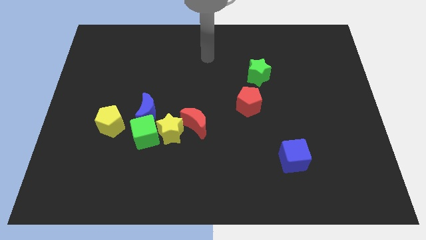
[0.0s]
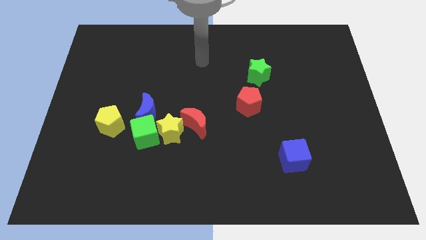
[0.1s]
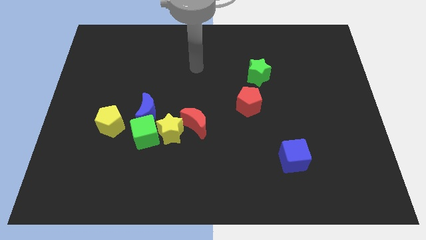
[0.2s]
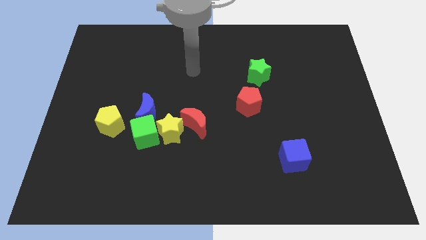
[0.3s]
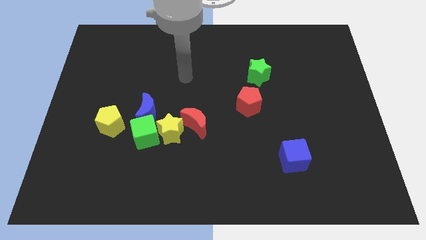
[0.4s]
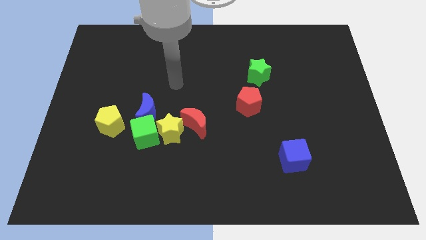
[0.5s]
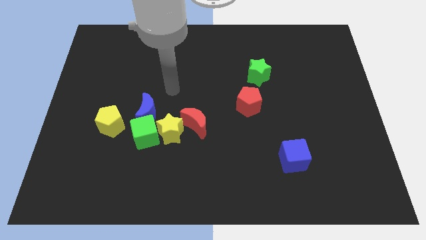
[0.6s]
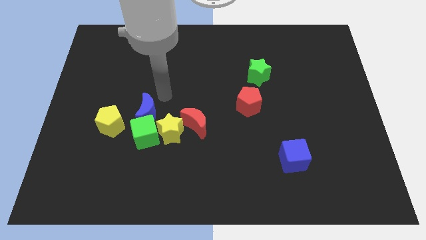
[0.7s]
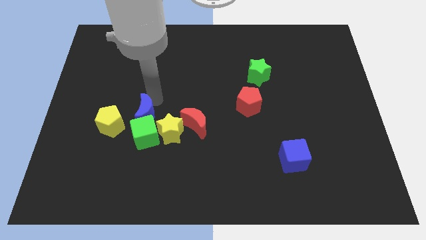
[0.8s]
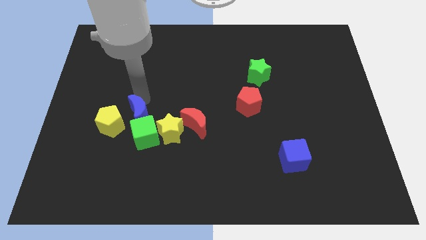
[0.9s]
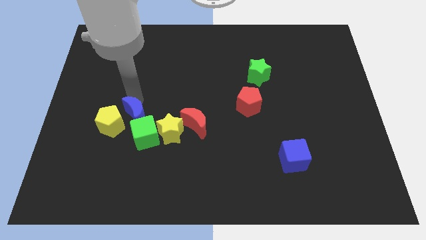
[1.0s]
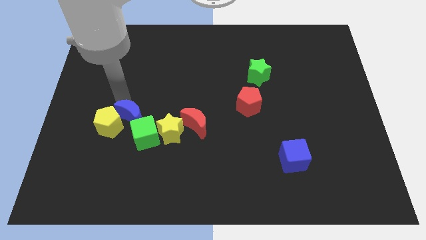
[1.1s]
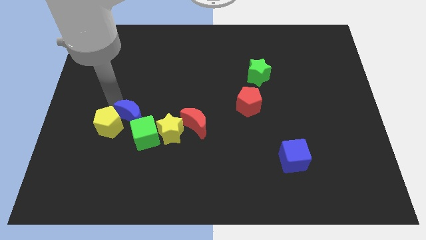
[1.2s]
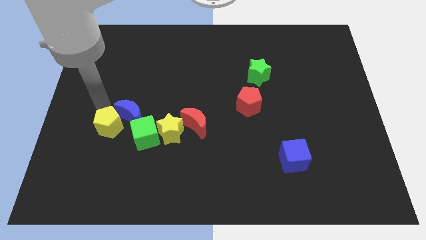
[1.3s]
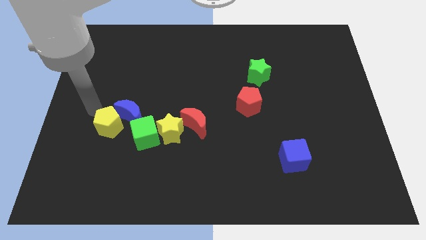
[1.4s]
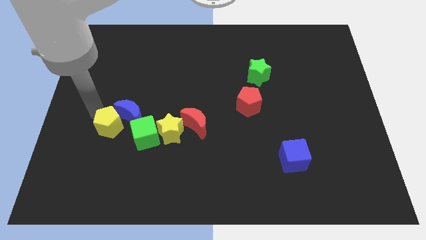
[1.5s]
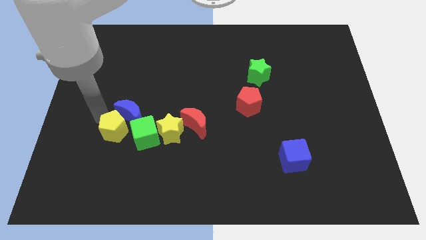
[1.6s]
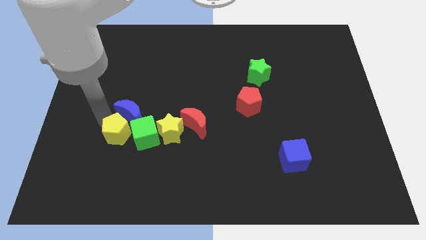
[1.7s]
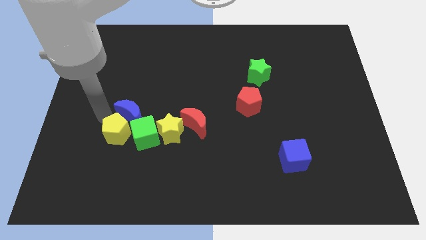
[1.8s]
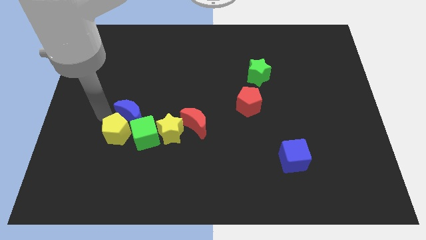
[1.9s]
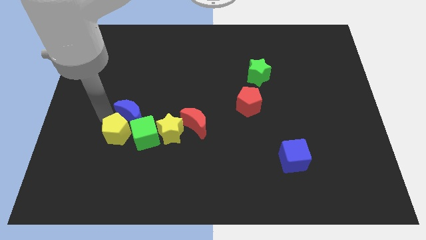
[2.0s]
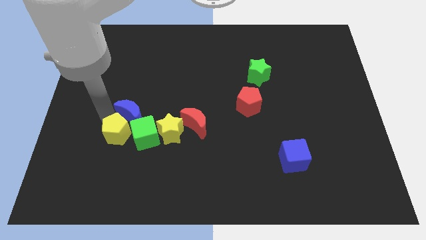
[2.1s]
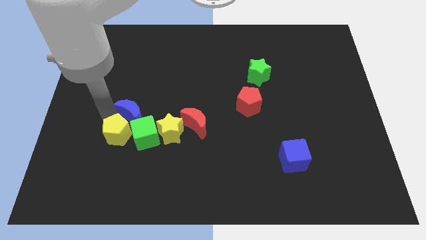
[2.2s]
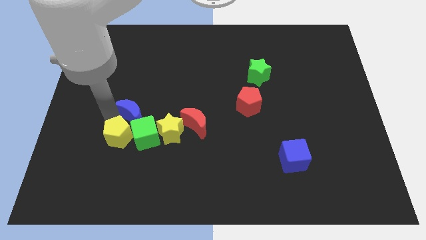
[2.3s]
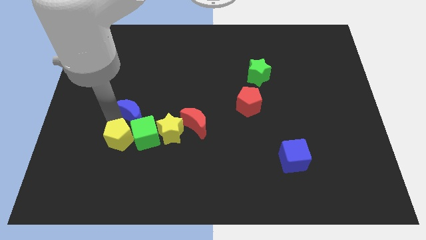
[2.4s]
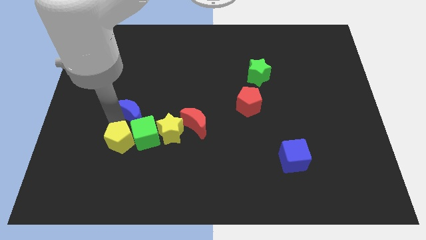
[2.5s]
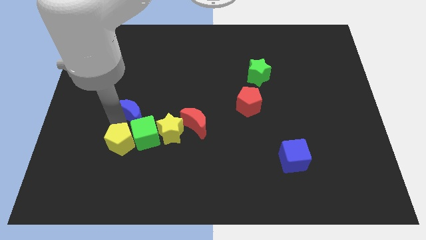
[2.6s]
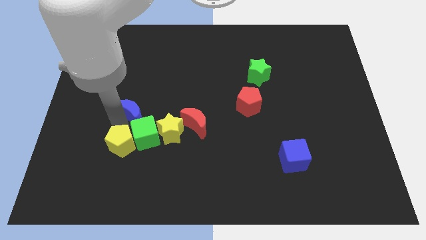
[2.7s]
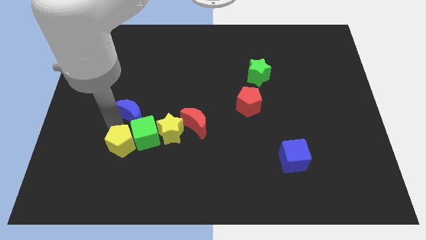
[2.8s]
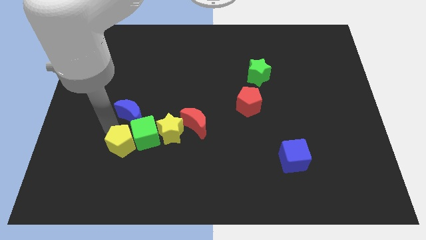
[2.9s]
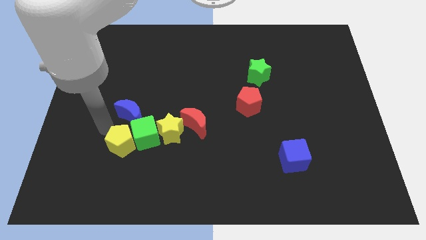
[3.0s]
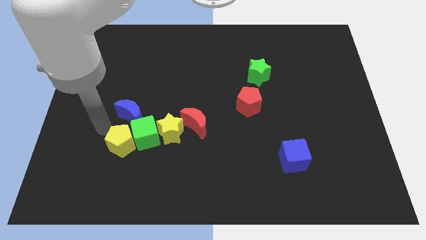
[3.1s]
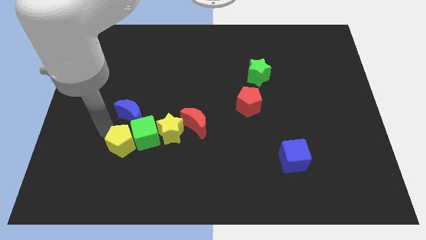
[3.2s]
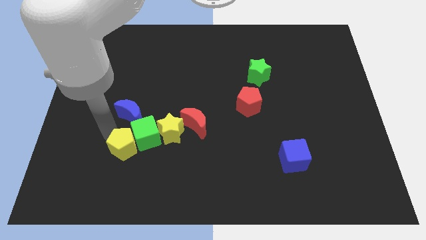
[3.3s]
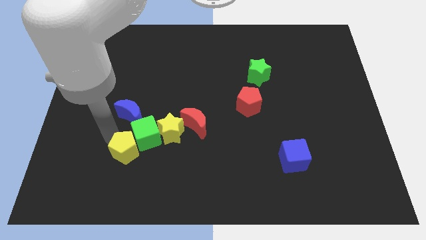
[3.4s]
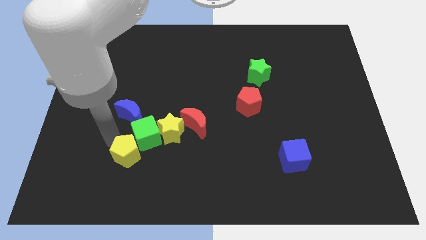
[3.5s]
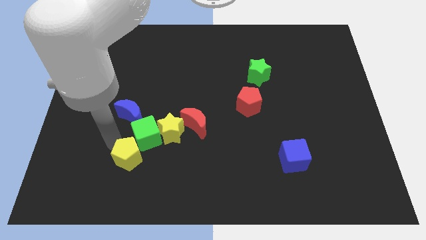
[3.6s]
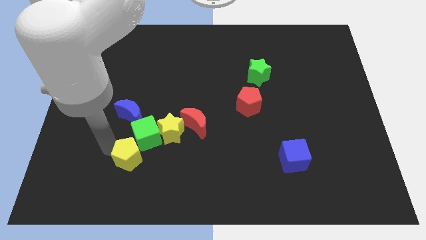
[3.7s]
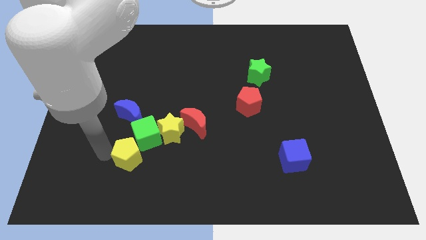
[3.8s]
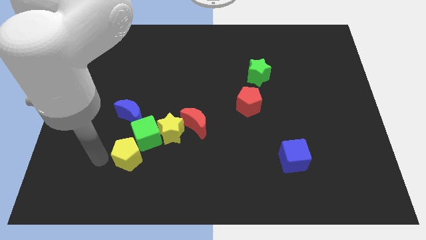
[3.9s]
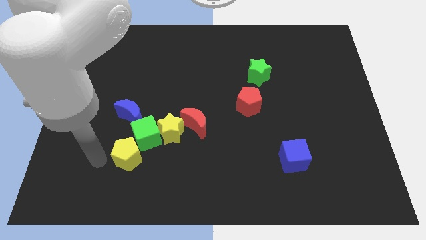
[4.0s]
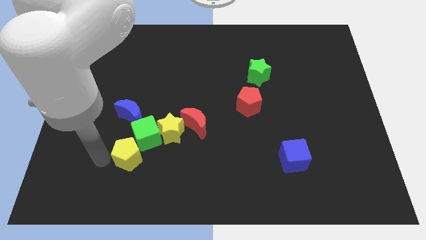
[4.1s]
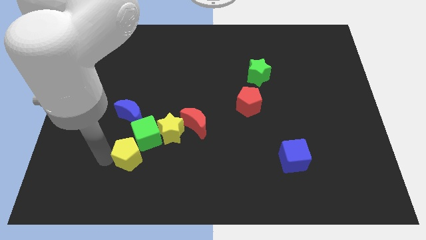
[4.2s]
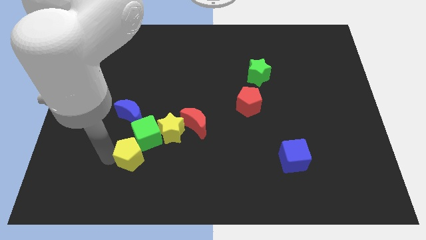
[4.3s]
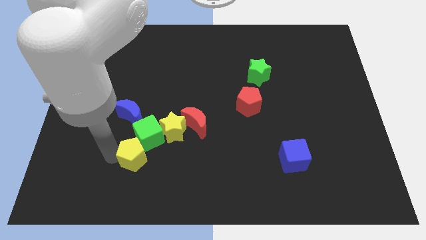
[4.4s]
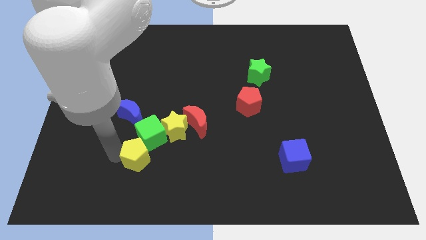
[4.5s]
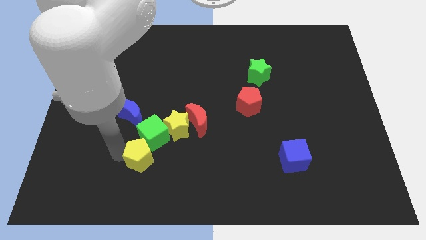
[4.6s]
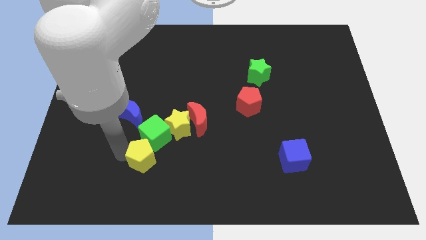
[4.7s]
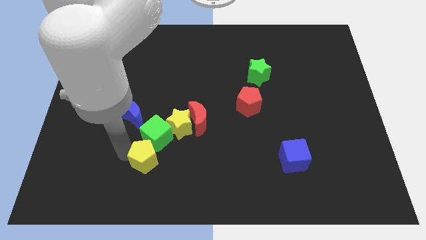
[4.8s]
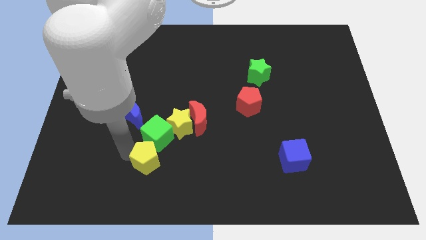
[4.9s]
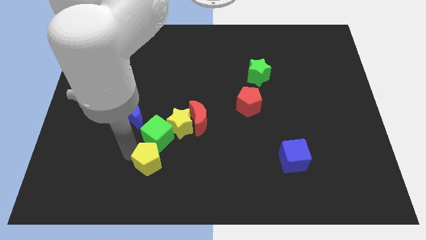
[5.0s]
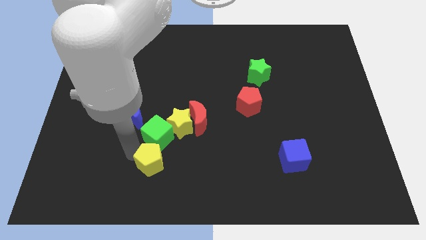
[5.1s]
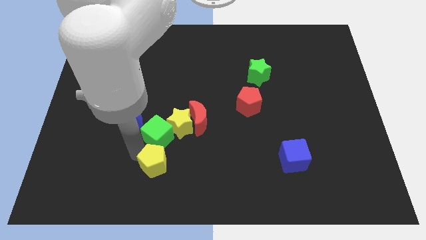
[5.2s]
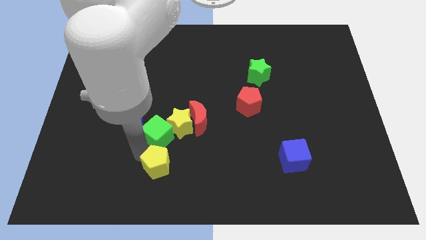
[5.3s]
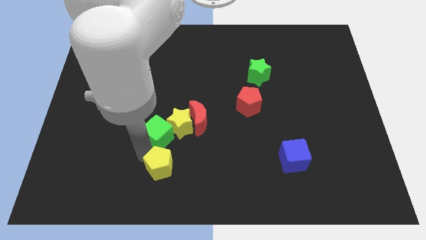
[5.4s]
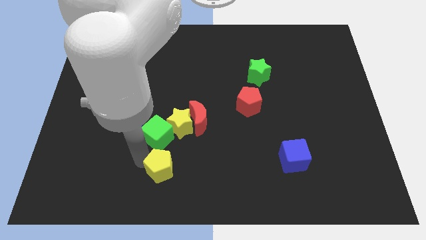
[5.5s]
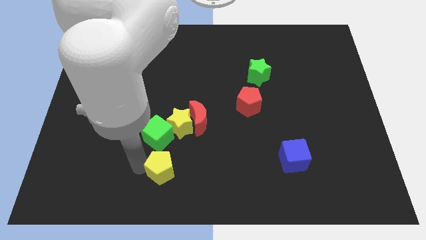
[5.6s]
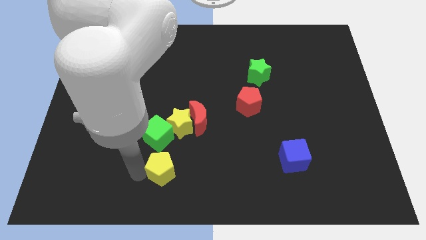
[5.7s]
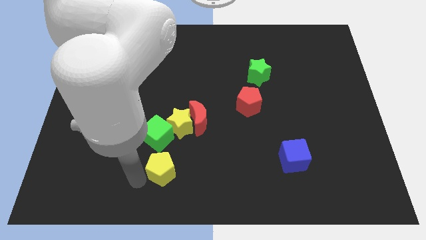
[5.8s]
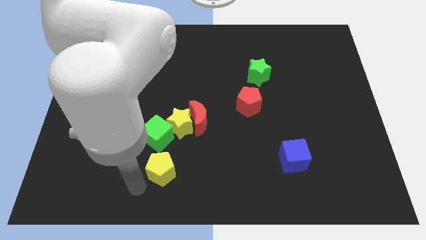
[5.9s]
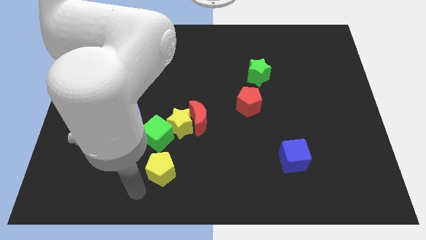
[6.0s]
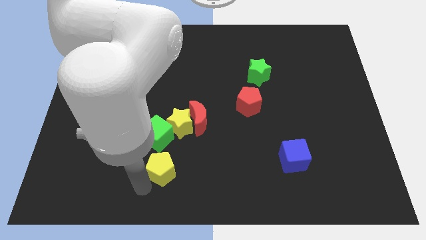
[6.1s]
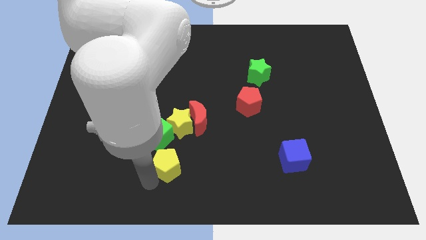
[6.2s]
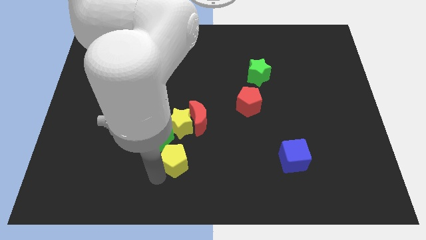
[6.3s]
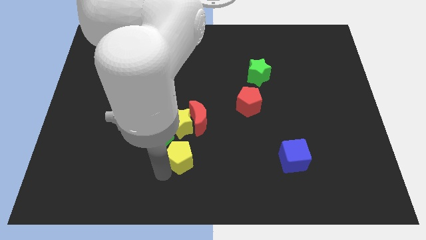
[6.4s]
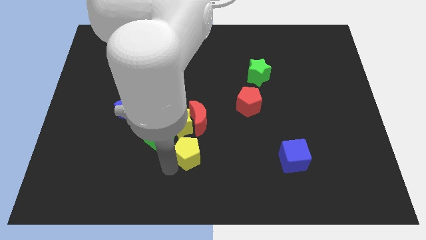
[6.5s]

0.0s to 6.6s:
slide the yellow pentagon just right of the green cube
